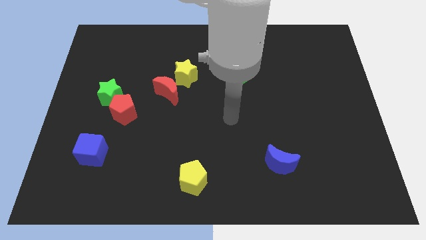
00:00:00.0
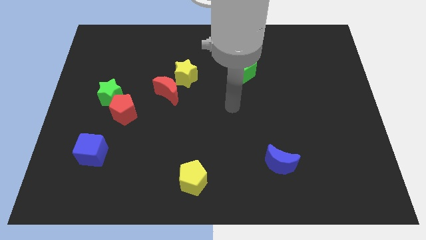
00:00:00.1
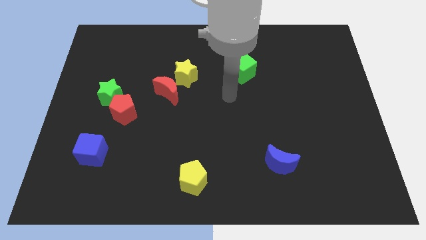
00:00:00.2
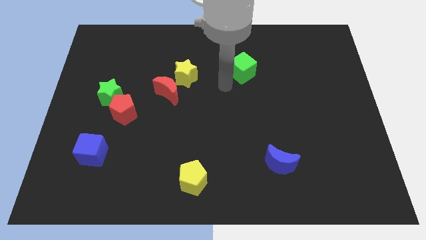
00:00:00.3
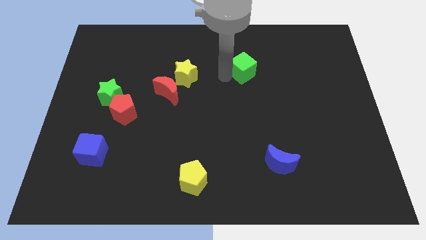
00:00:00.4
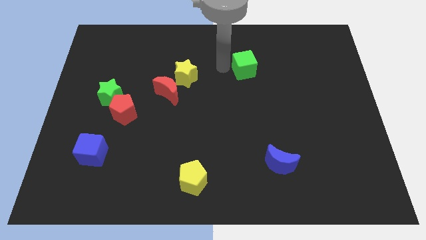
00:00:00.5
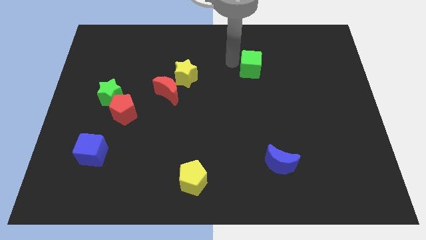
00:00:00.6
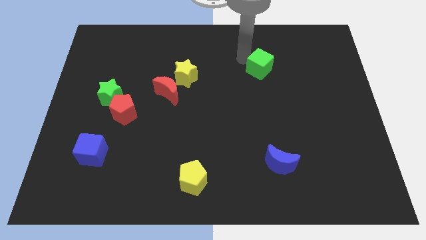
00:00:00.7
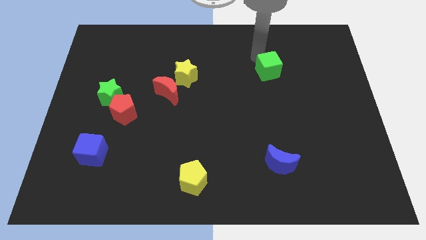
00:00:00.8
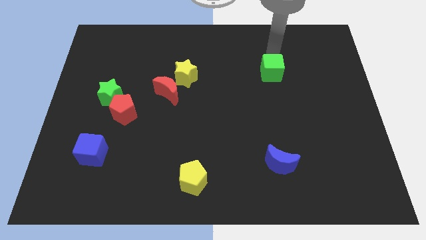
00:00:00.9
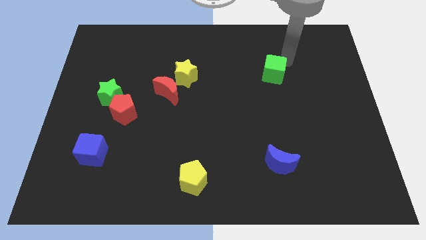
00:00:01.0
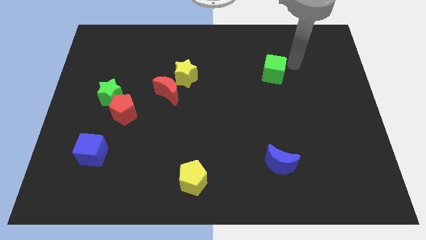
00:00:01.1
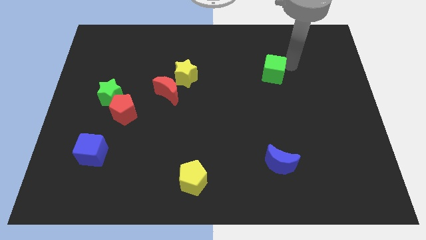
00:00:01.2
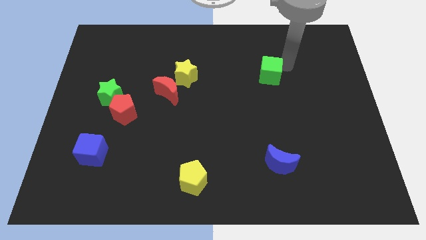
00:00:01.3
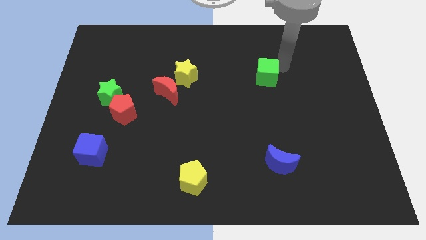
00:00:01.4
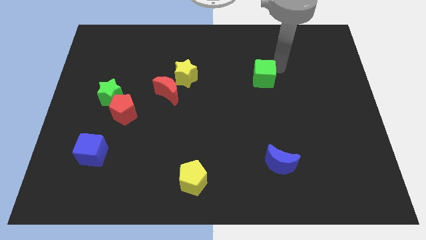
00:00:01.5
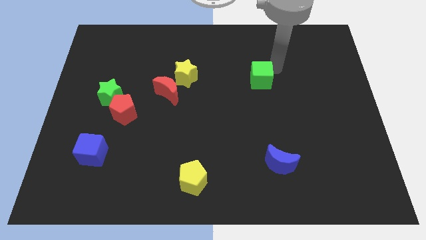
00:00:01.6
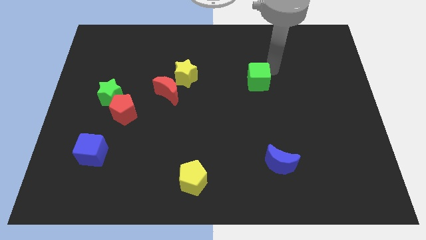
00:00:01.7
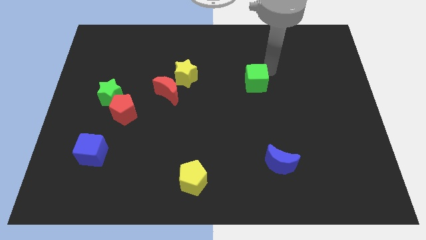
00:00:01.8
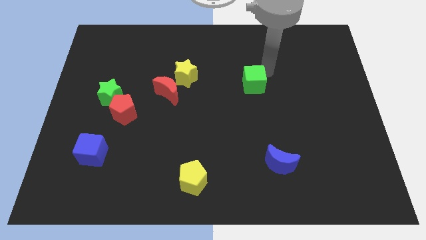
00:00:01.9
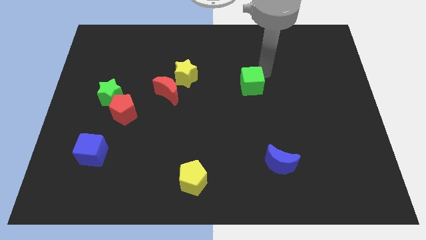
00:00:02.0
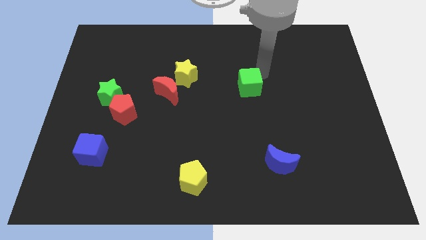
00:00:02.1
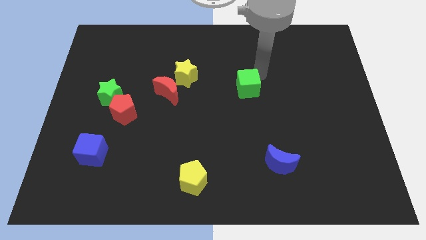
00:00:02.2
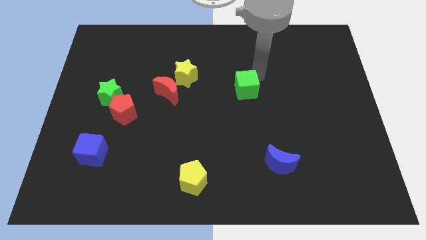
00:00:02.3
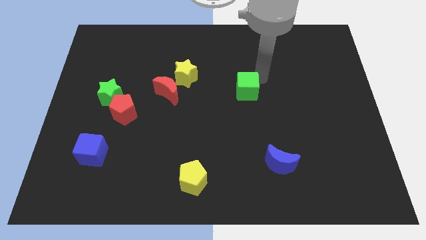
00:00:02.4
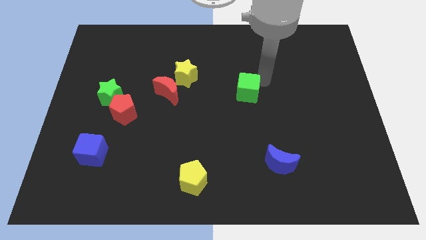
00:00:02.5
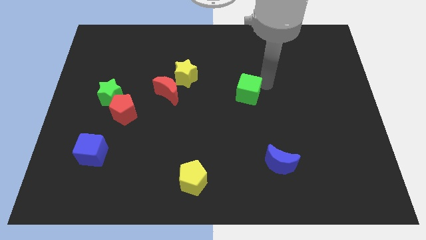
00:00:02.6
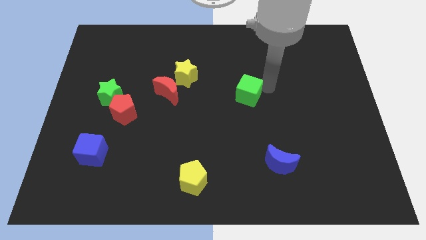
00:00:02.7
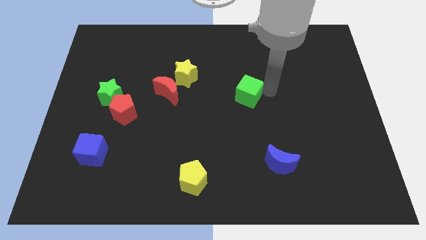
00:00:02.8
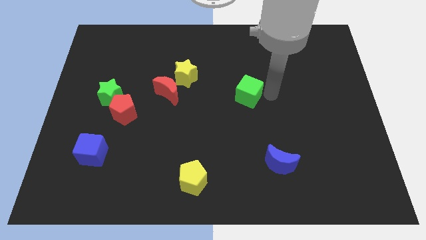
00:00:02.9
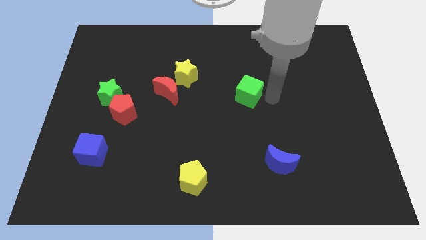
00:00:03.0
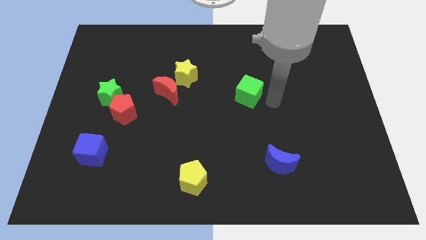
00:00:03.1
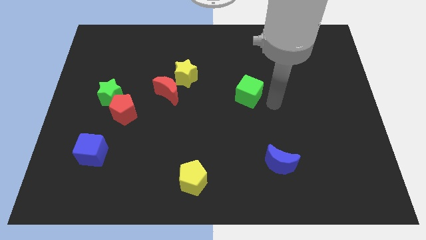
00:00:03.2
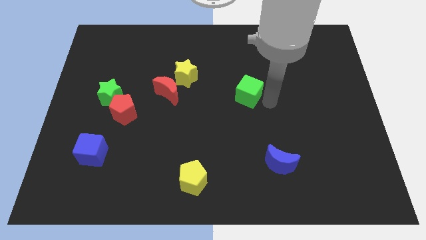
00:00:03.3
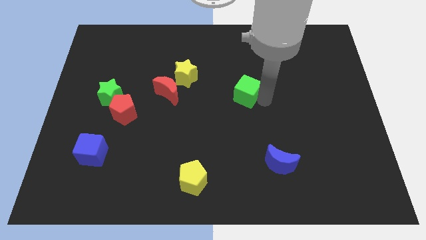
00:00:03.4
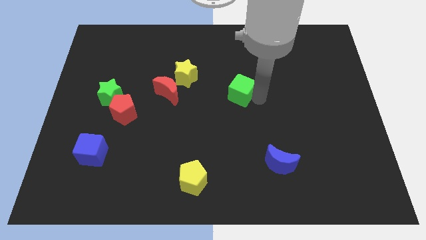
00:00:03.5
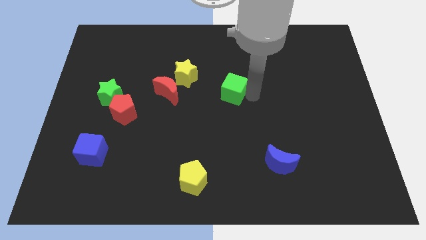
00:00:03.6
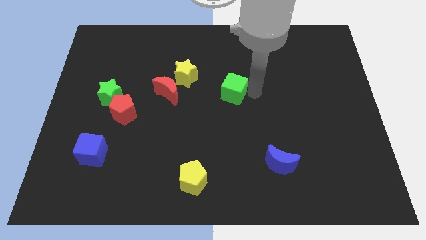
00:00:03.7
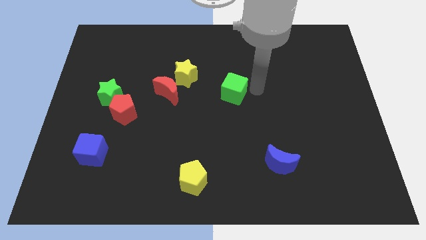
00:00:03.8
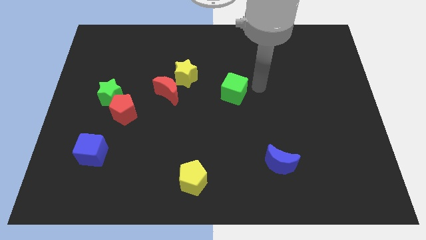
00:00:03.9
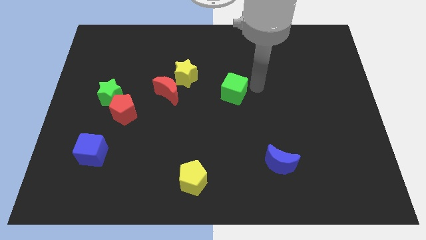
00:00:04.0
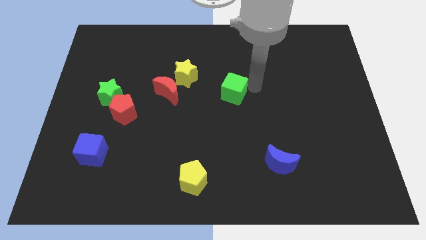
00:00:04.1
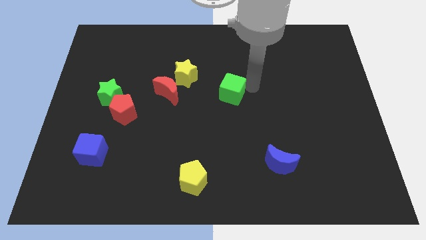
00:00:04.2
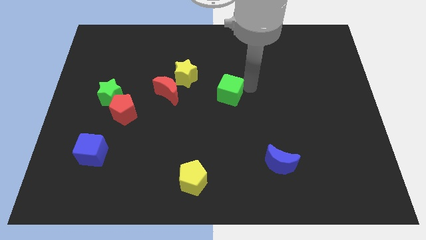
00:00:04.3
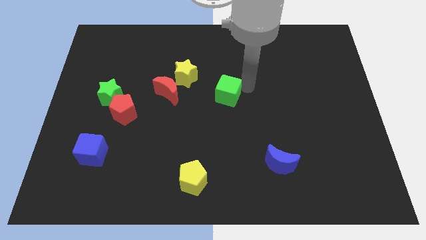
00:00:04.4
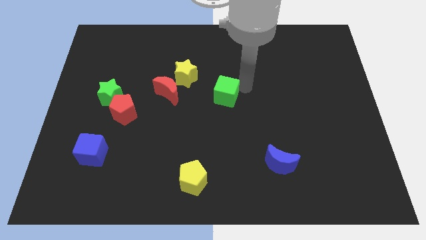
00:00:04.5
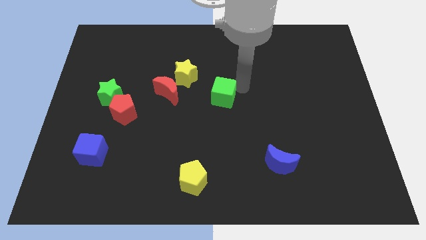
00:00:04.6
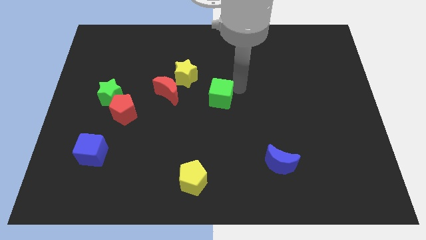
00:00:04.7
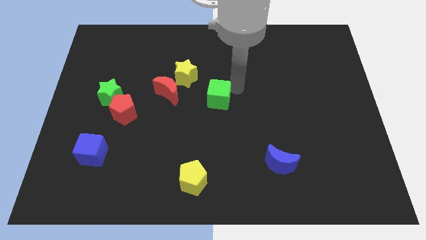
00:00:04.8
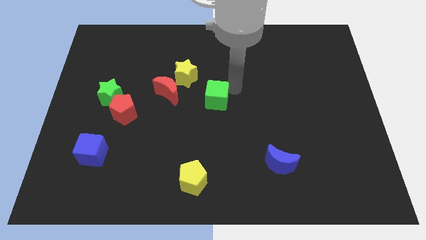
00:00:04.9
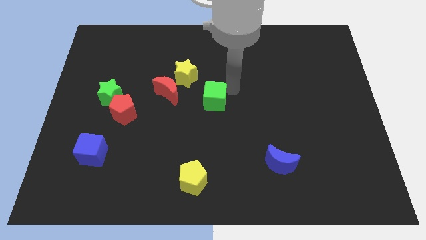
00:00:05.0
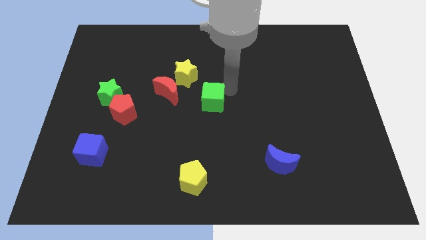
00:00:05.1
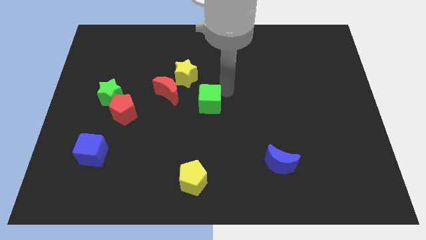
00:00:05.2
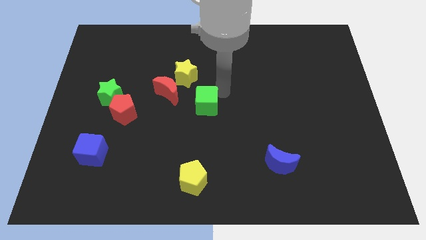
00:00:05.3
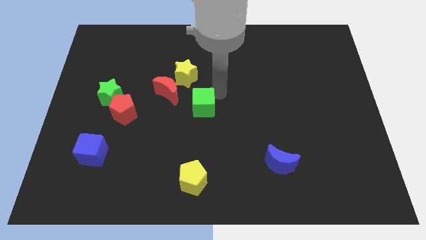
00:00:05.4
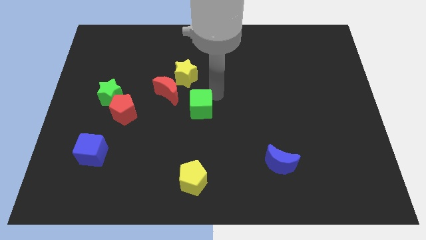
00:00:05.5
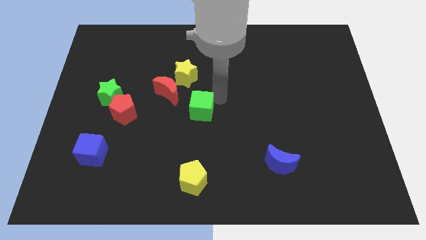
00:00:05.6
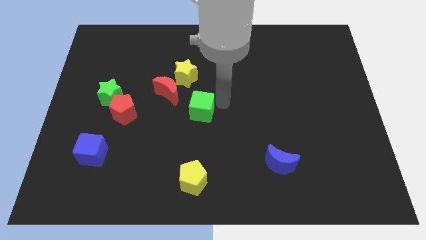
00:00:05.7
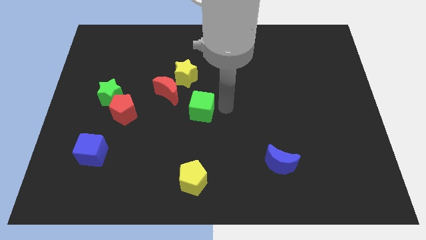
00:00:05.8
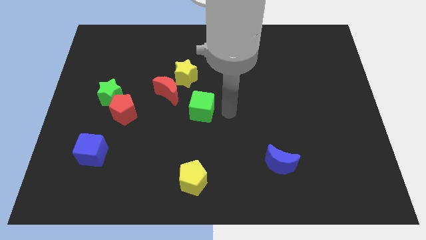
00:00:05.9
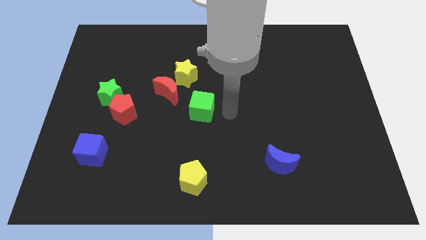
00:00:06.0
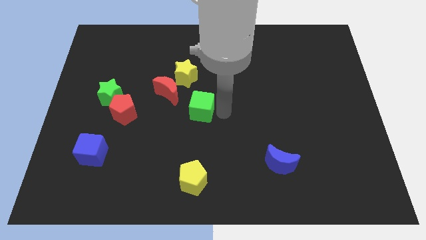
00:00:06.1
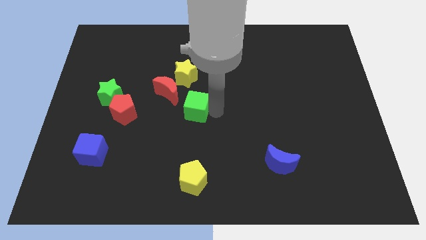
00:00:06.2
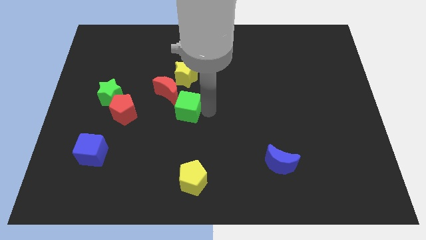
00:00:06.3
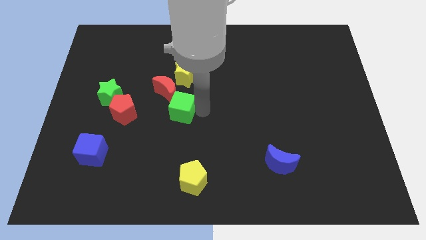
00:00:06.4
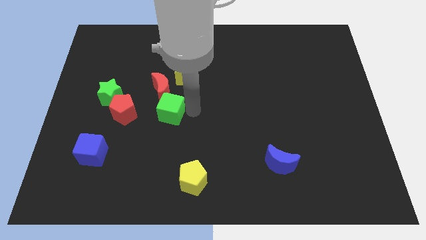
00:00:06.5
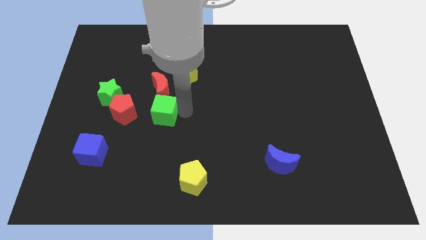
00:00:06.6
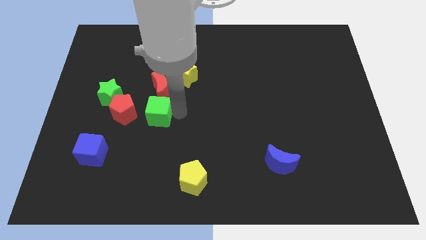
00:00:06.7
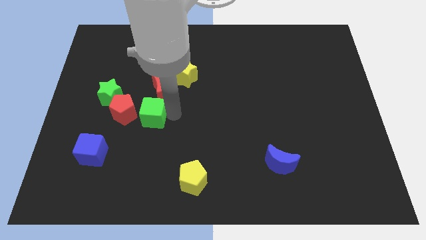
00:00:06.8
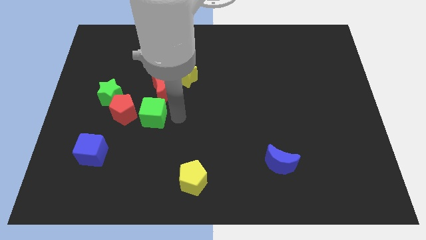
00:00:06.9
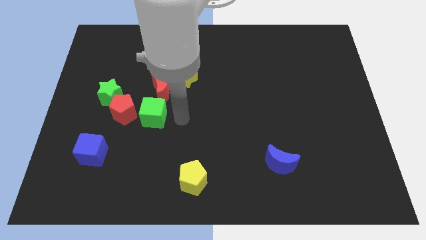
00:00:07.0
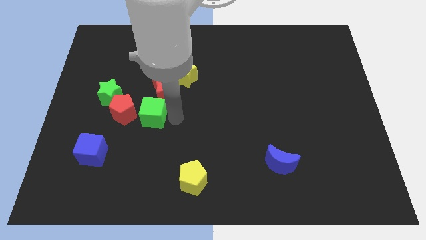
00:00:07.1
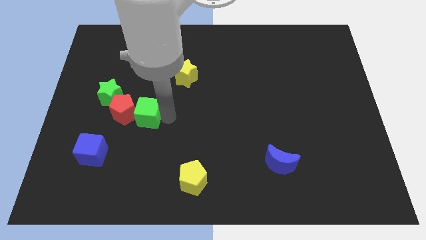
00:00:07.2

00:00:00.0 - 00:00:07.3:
slide the green cube to the red pentagon
